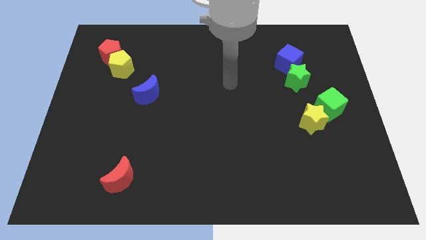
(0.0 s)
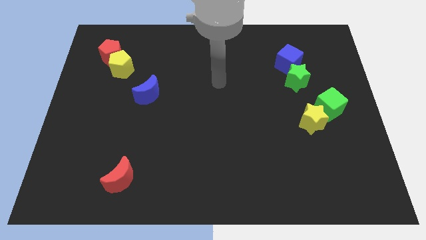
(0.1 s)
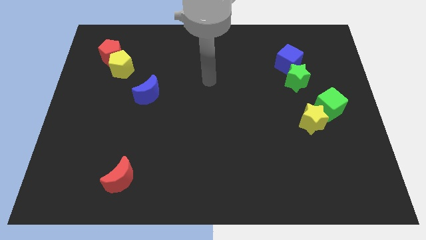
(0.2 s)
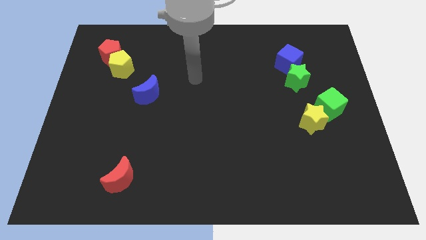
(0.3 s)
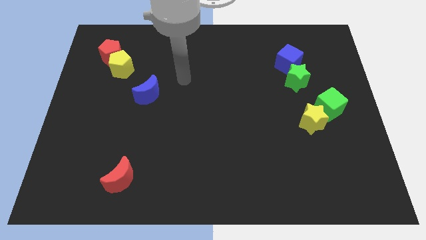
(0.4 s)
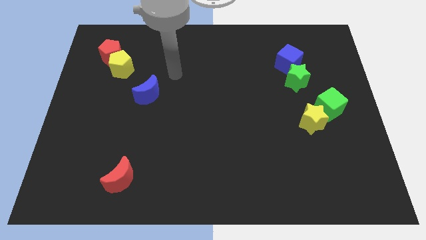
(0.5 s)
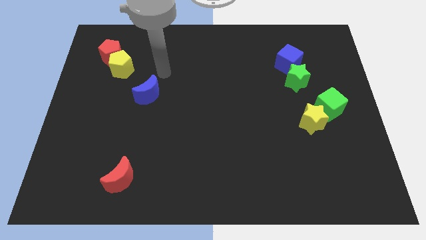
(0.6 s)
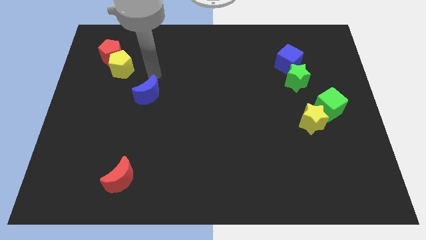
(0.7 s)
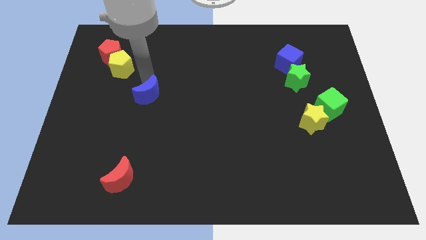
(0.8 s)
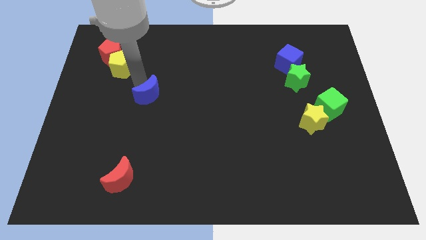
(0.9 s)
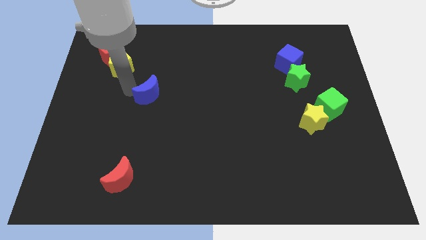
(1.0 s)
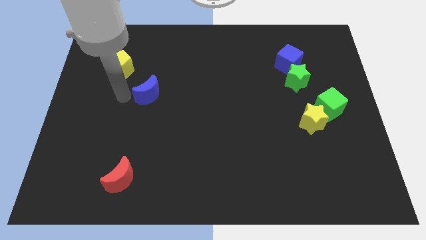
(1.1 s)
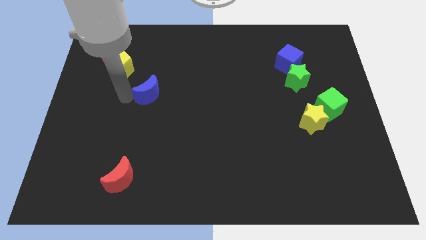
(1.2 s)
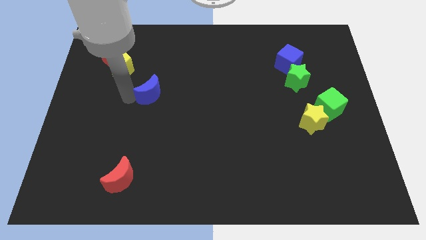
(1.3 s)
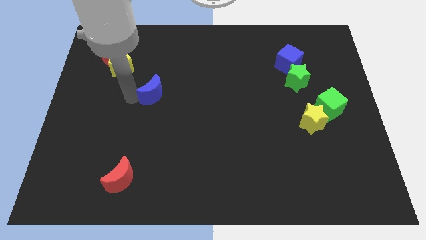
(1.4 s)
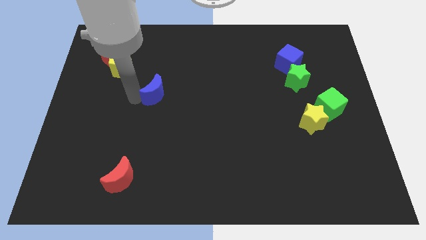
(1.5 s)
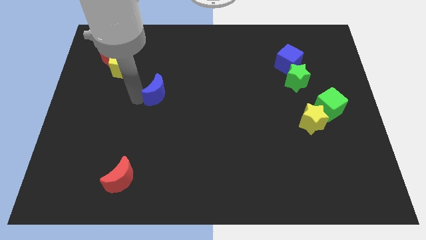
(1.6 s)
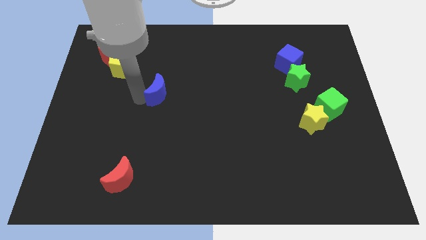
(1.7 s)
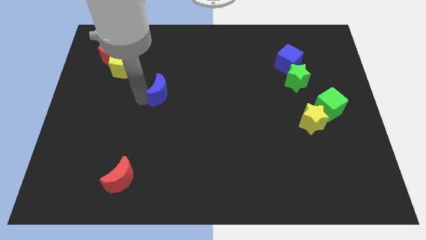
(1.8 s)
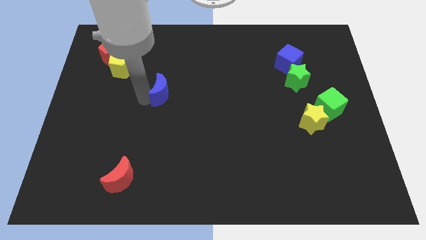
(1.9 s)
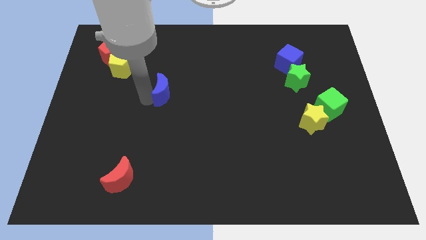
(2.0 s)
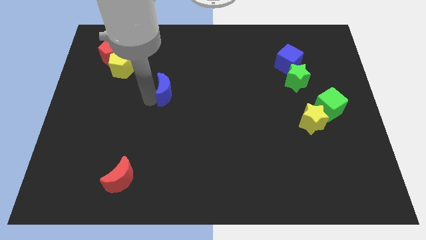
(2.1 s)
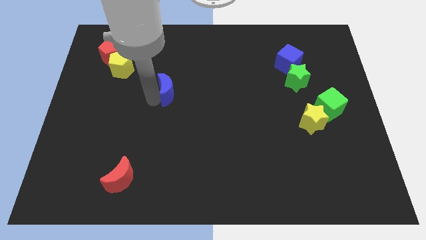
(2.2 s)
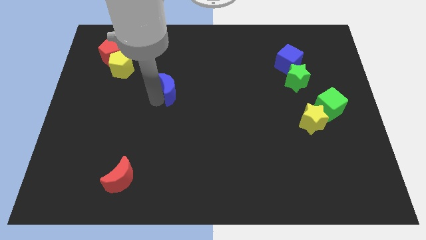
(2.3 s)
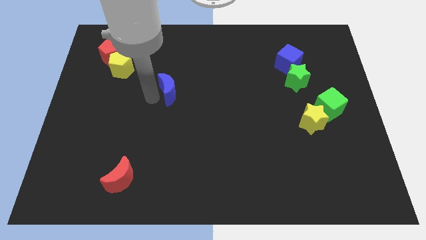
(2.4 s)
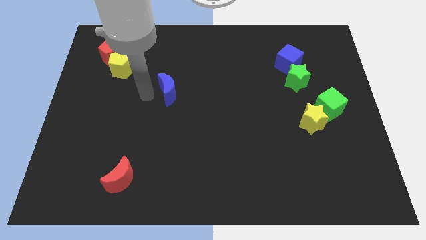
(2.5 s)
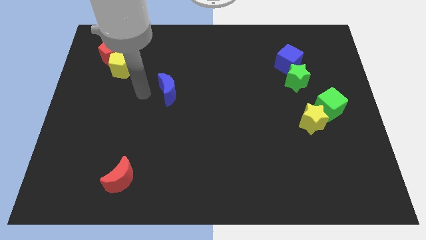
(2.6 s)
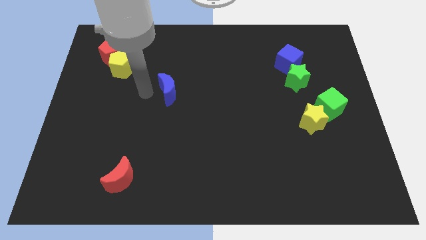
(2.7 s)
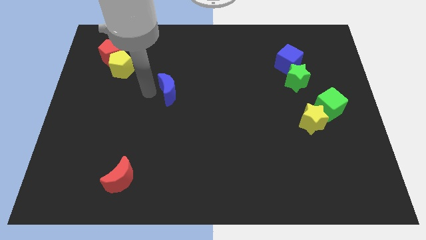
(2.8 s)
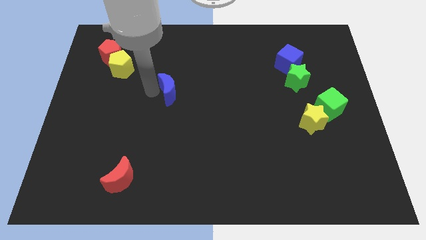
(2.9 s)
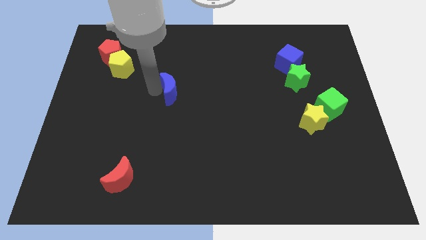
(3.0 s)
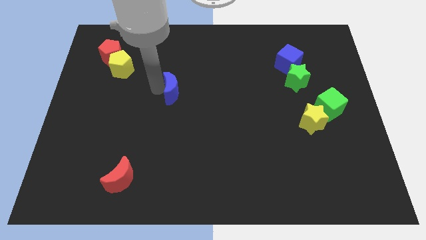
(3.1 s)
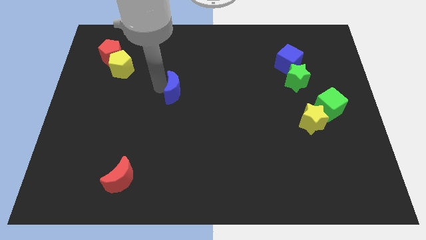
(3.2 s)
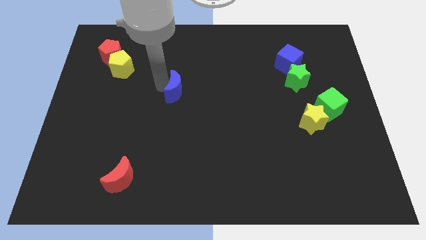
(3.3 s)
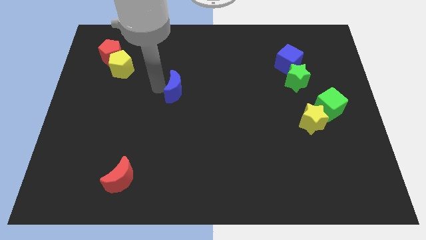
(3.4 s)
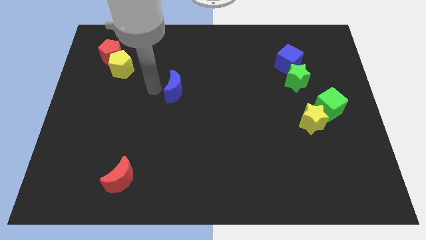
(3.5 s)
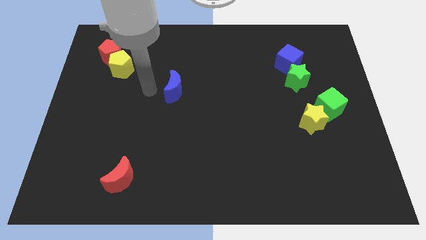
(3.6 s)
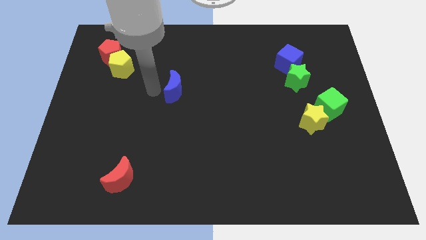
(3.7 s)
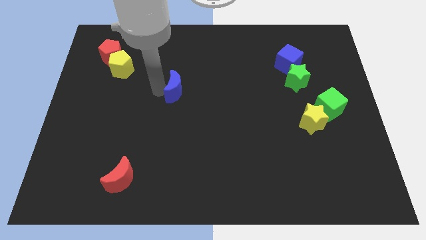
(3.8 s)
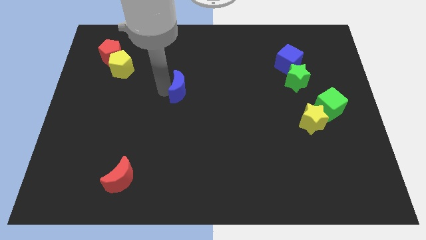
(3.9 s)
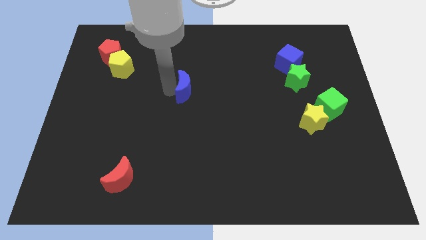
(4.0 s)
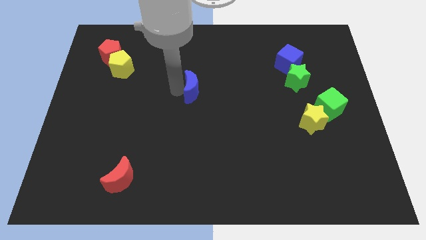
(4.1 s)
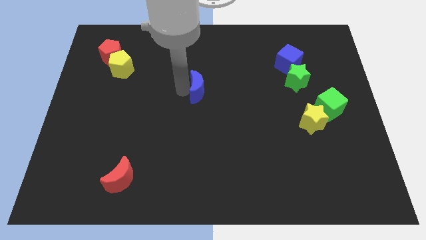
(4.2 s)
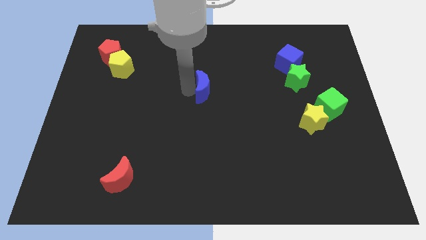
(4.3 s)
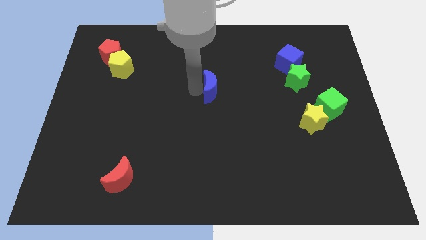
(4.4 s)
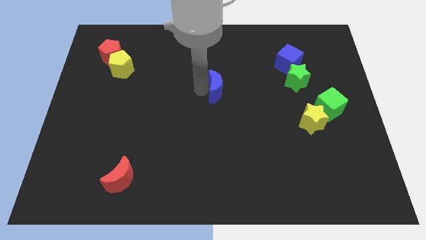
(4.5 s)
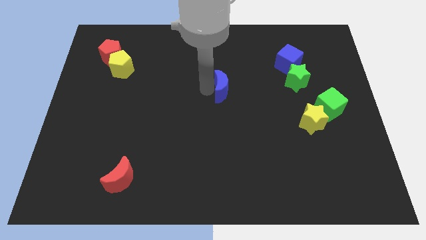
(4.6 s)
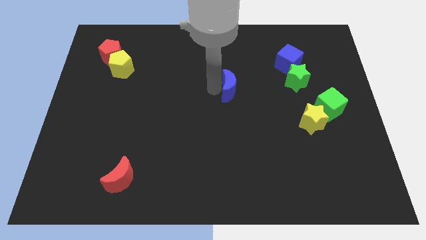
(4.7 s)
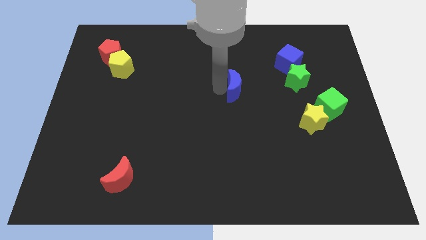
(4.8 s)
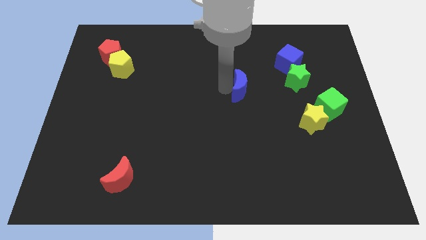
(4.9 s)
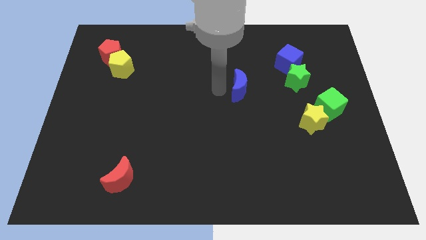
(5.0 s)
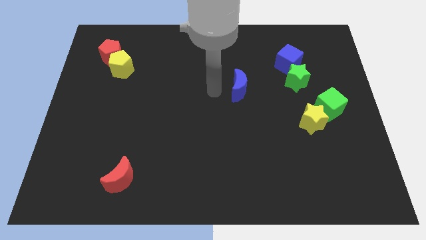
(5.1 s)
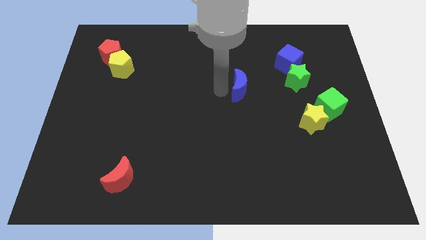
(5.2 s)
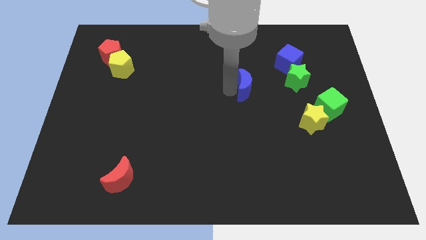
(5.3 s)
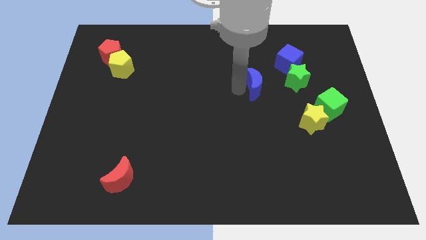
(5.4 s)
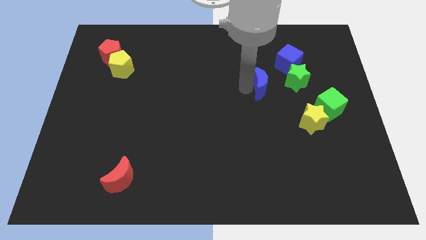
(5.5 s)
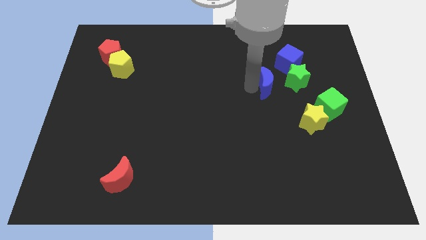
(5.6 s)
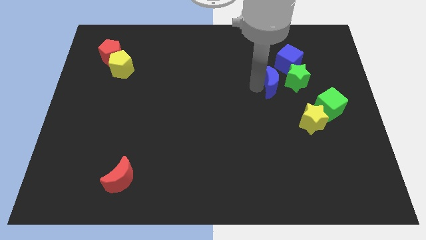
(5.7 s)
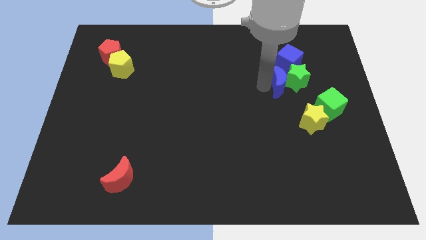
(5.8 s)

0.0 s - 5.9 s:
move the blue moon towards the green star

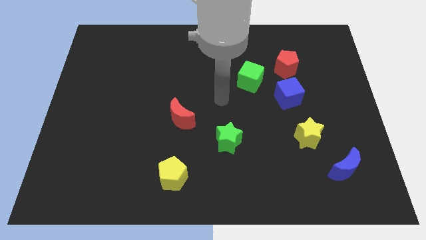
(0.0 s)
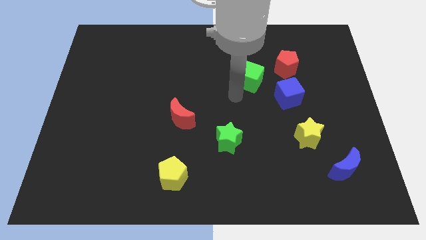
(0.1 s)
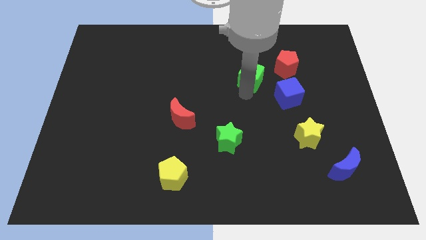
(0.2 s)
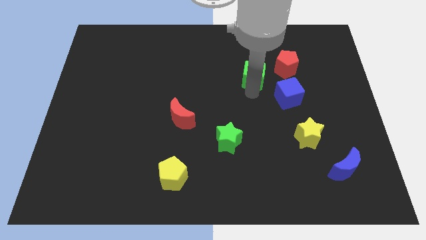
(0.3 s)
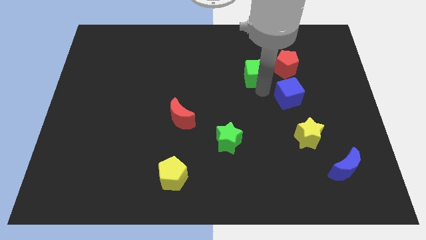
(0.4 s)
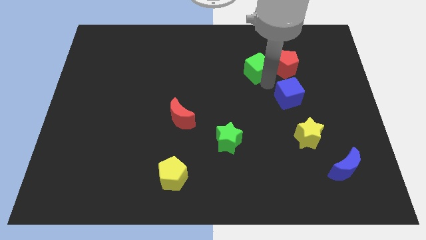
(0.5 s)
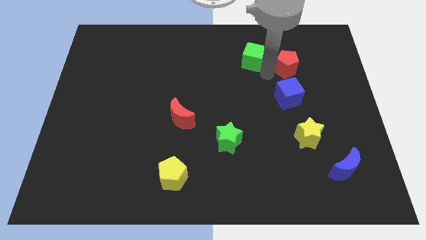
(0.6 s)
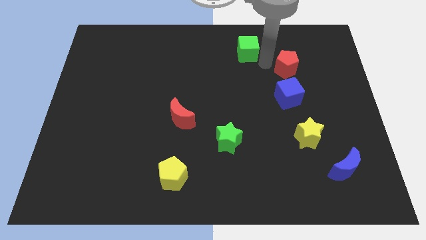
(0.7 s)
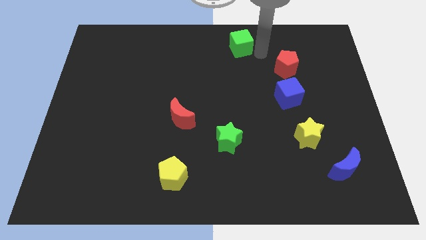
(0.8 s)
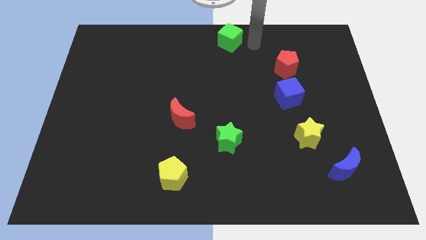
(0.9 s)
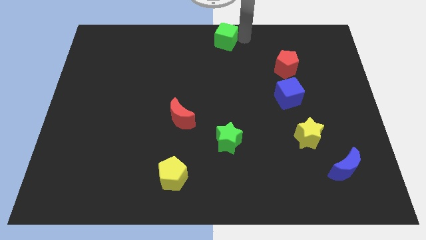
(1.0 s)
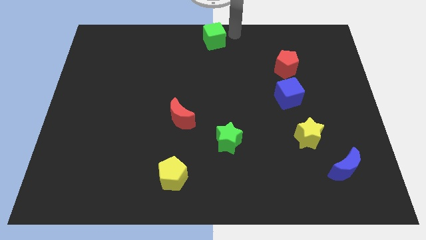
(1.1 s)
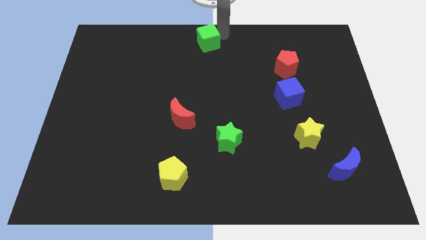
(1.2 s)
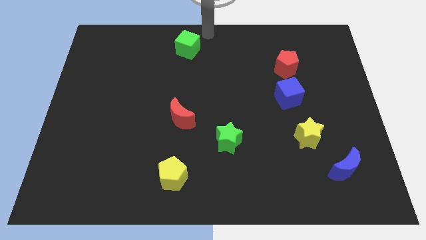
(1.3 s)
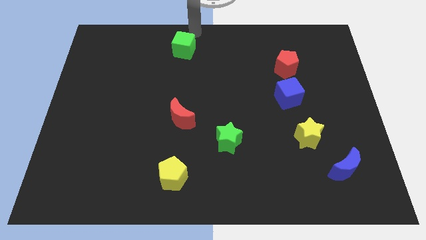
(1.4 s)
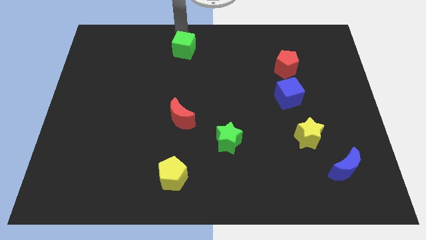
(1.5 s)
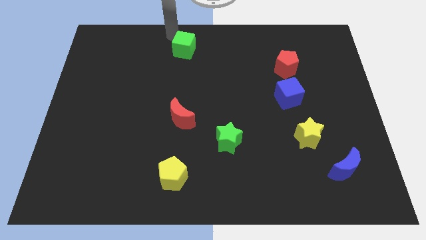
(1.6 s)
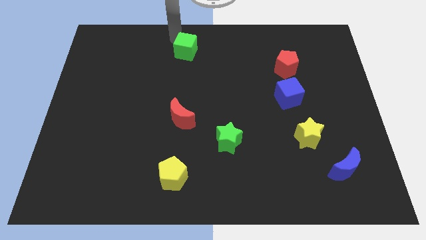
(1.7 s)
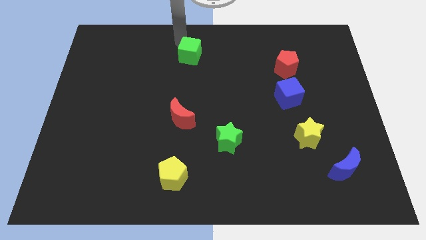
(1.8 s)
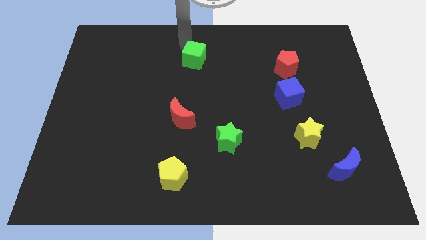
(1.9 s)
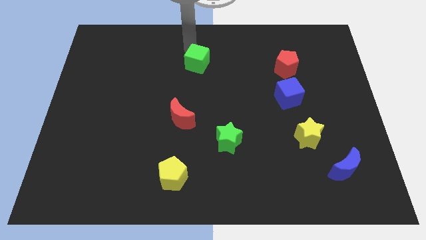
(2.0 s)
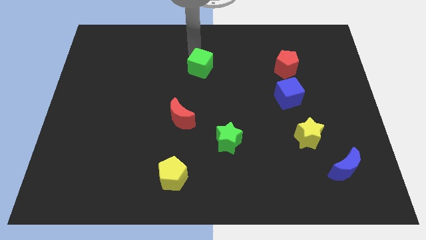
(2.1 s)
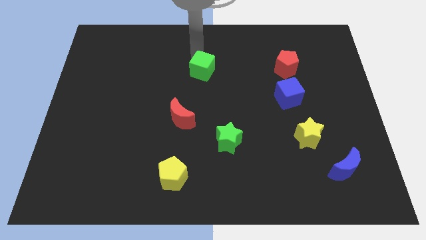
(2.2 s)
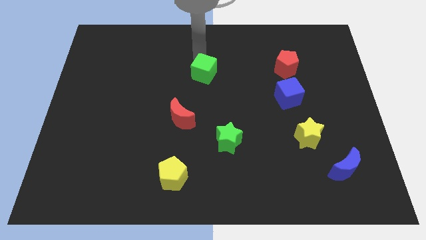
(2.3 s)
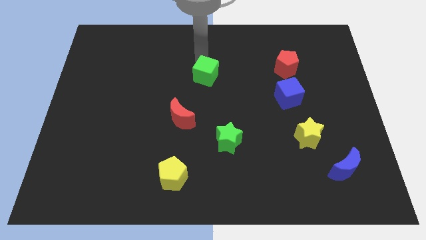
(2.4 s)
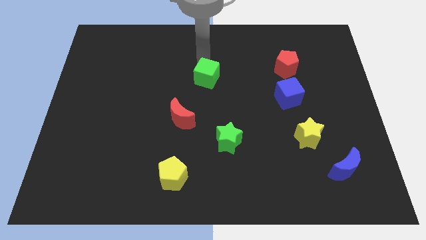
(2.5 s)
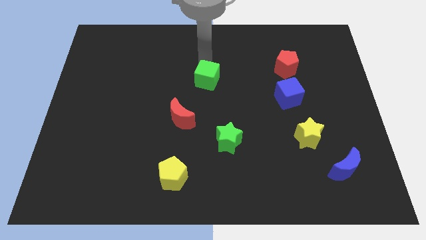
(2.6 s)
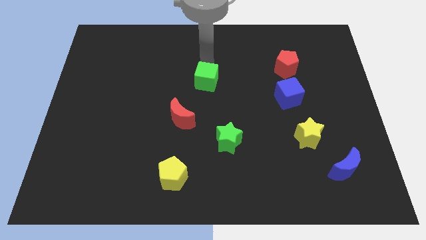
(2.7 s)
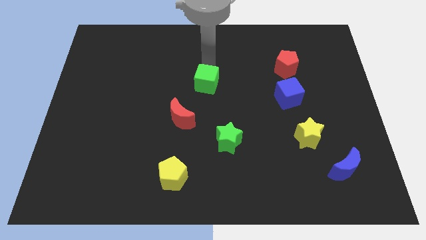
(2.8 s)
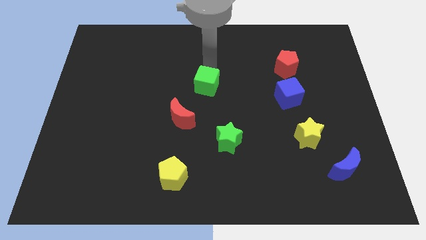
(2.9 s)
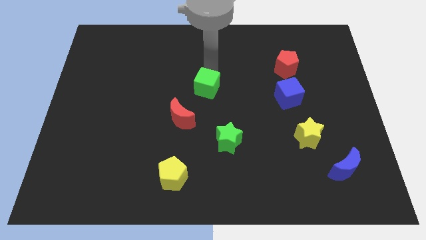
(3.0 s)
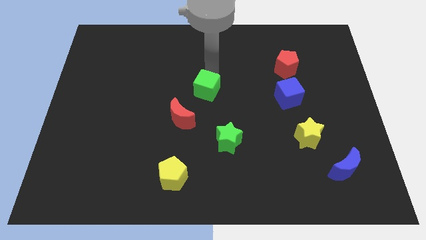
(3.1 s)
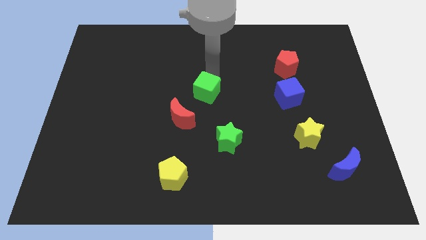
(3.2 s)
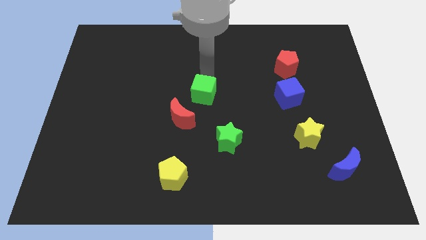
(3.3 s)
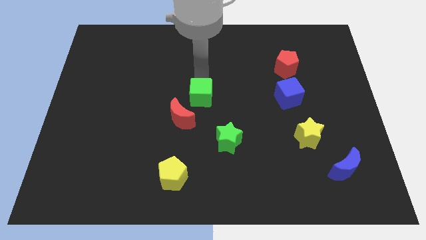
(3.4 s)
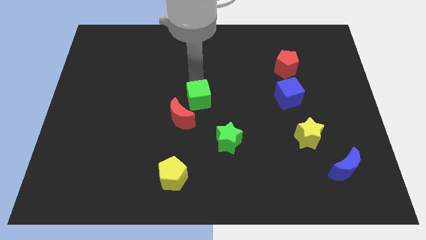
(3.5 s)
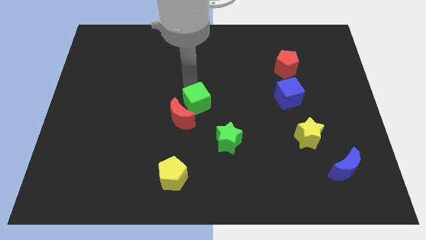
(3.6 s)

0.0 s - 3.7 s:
slide the green cube close to the red moon
